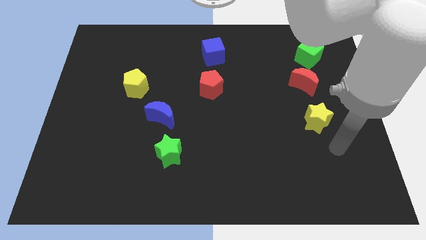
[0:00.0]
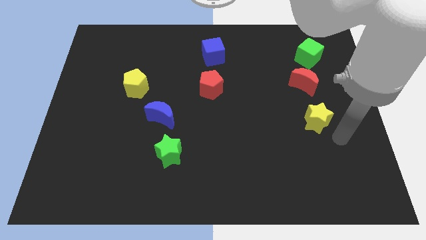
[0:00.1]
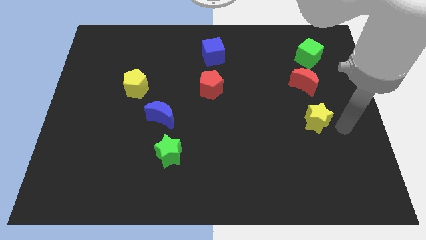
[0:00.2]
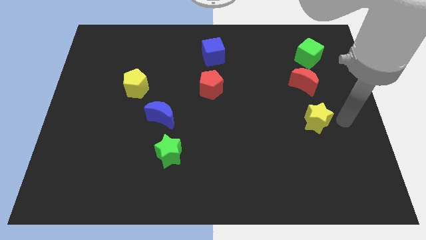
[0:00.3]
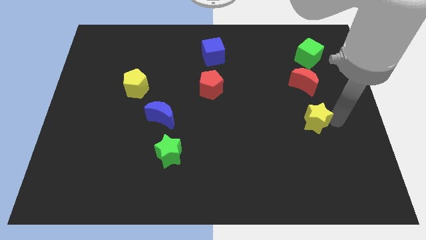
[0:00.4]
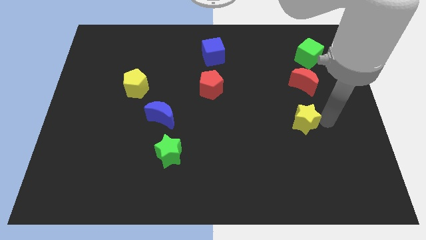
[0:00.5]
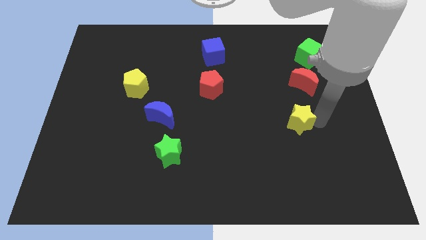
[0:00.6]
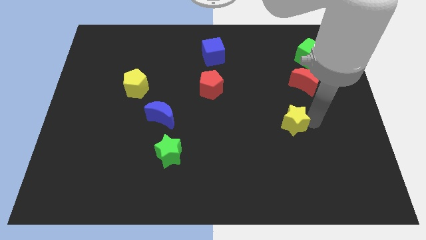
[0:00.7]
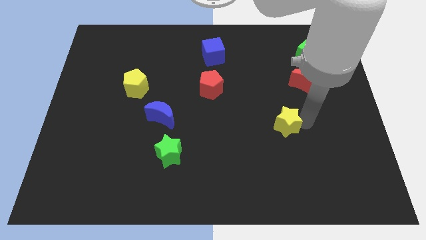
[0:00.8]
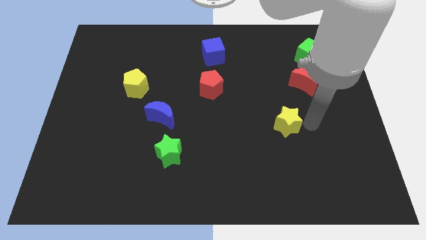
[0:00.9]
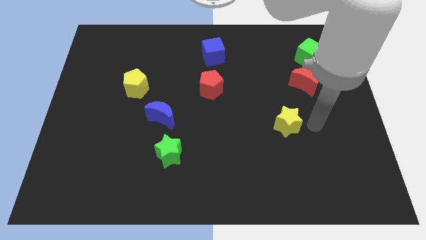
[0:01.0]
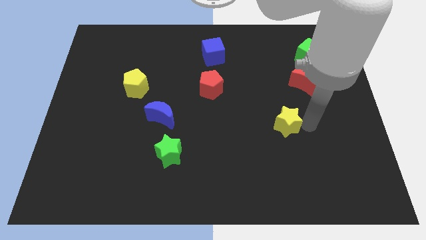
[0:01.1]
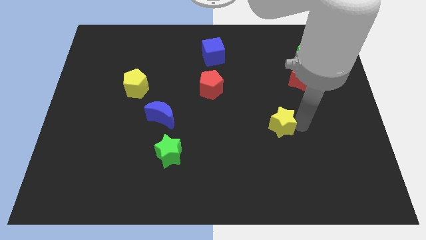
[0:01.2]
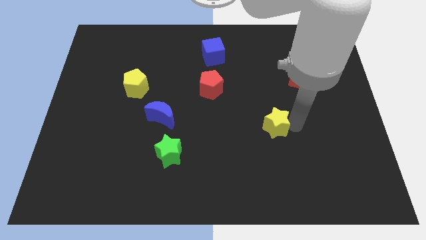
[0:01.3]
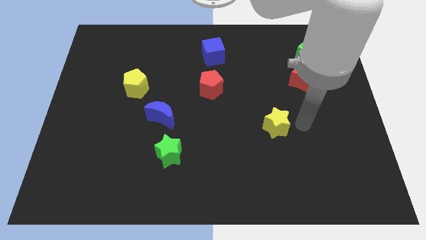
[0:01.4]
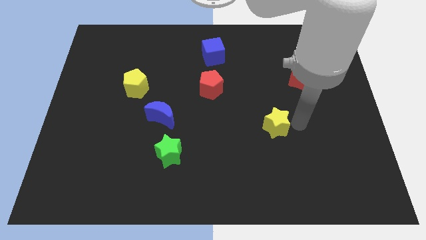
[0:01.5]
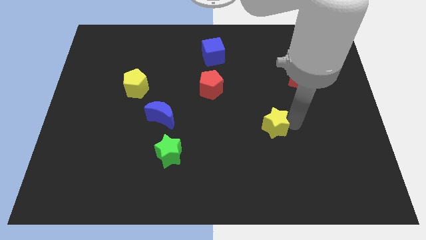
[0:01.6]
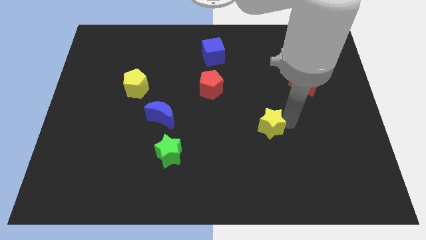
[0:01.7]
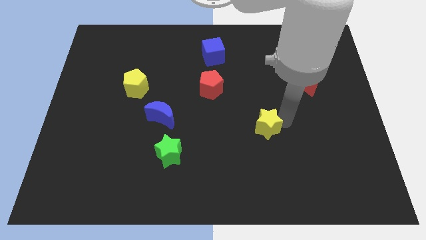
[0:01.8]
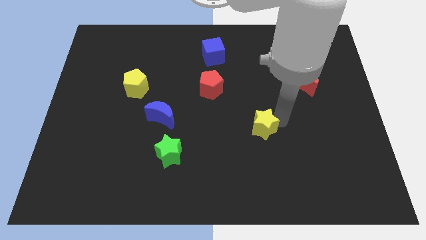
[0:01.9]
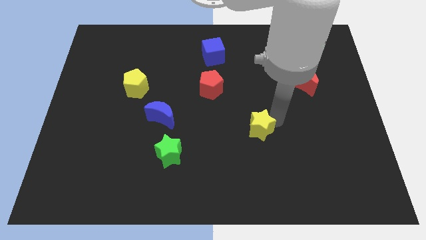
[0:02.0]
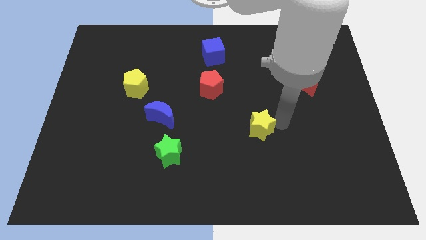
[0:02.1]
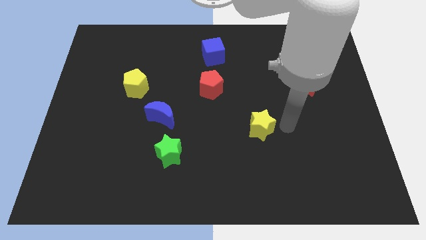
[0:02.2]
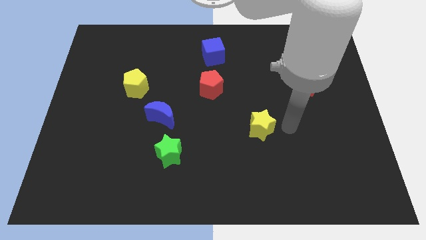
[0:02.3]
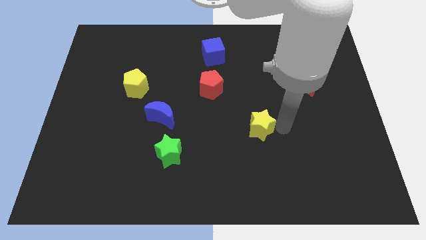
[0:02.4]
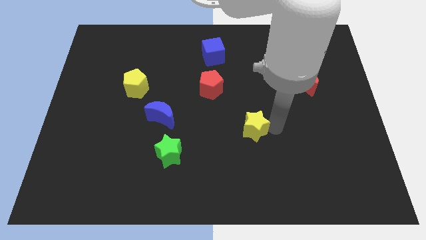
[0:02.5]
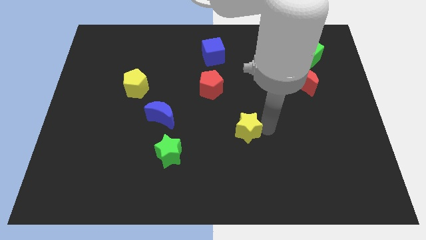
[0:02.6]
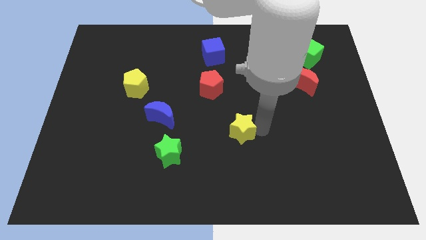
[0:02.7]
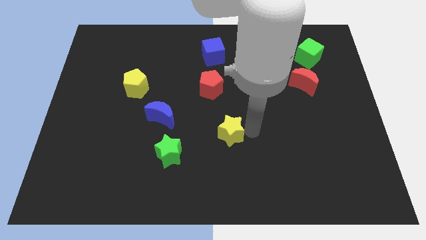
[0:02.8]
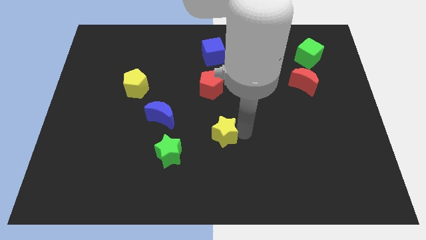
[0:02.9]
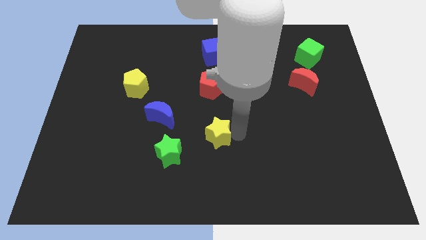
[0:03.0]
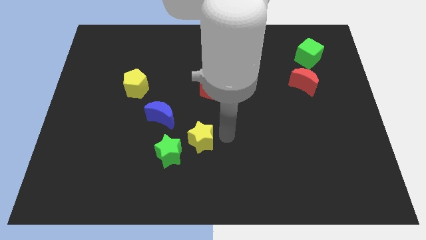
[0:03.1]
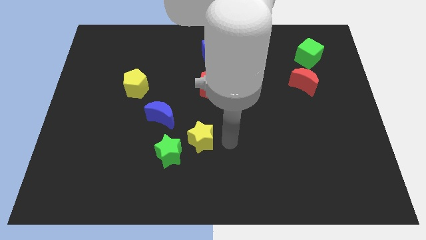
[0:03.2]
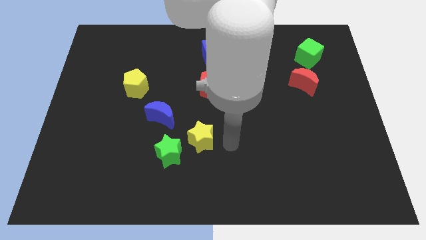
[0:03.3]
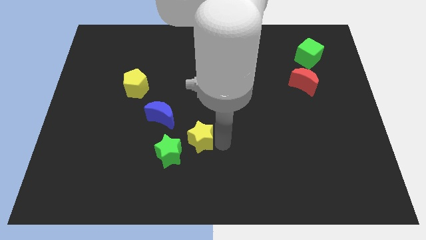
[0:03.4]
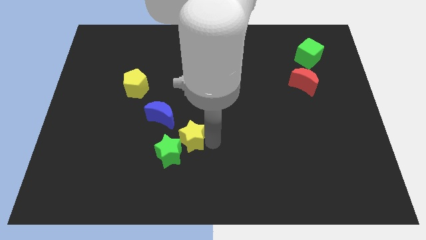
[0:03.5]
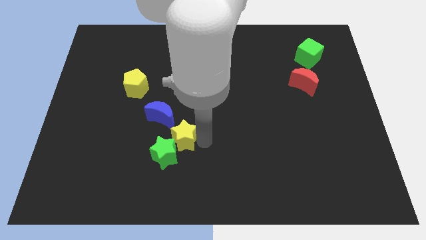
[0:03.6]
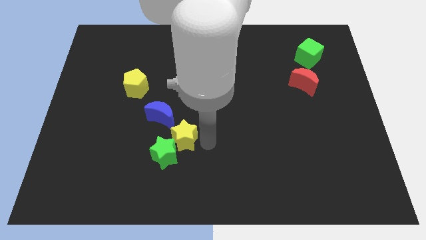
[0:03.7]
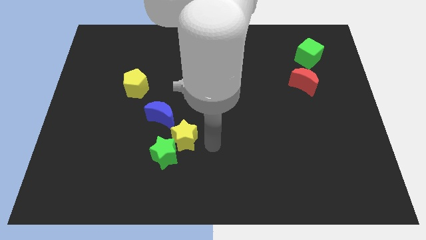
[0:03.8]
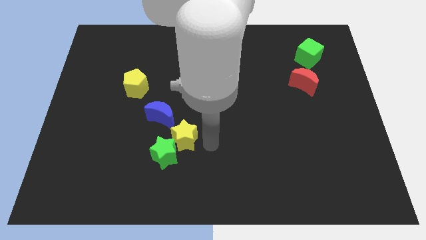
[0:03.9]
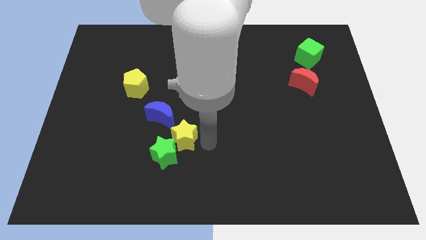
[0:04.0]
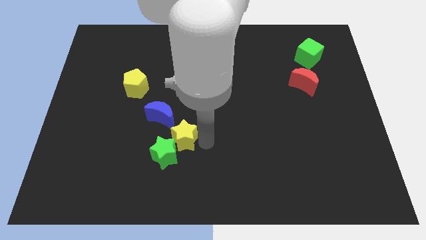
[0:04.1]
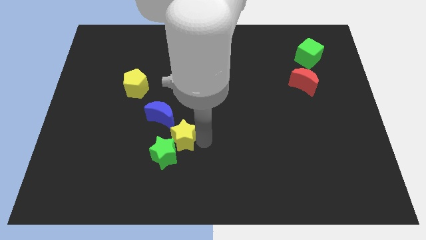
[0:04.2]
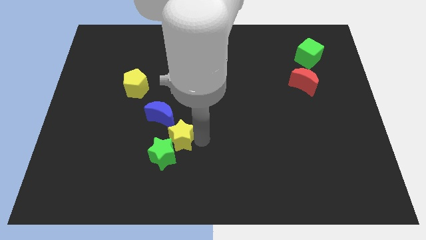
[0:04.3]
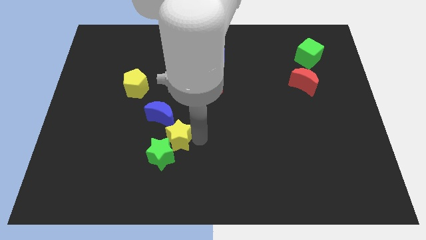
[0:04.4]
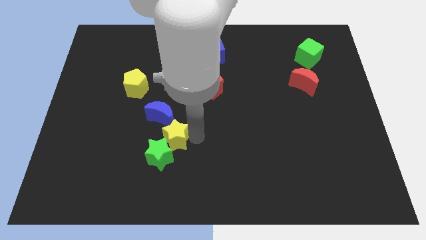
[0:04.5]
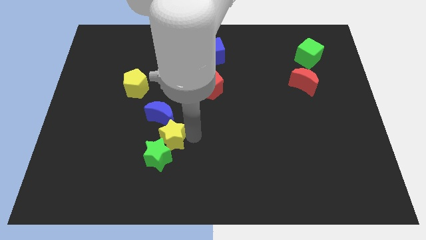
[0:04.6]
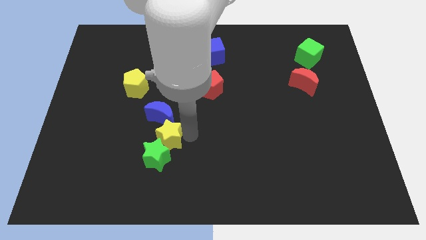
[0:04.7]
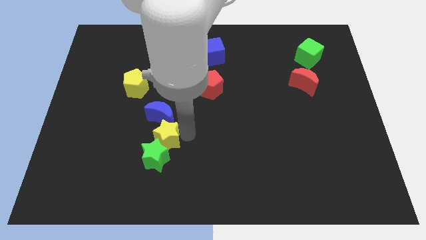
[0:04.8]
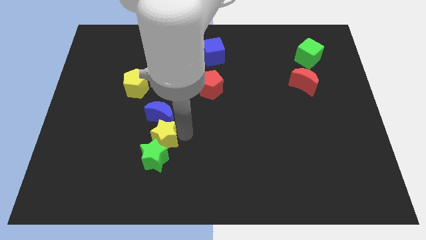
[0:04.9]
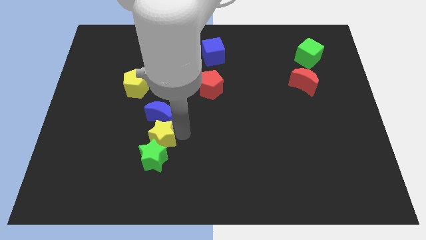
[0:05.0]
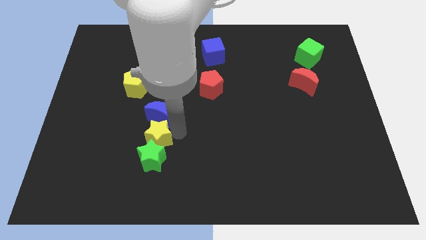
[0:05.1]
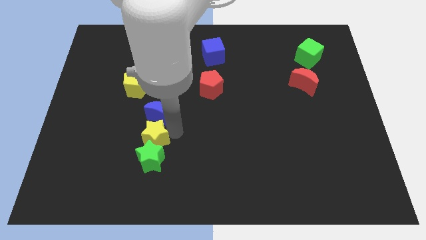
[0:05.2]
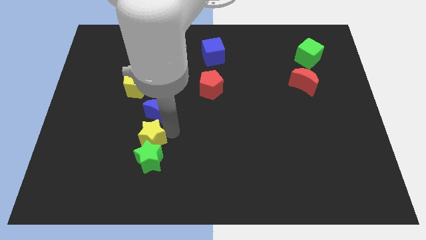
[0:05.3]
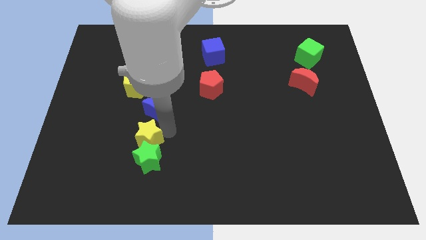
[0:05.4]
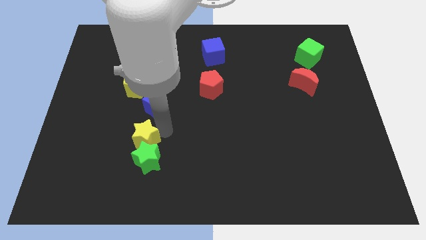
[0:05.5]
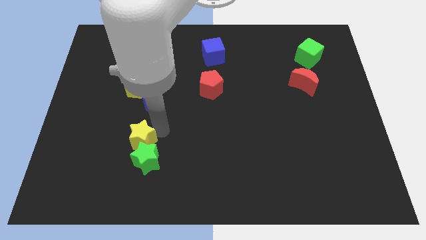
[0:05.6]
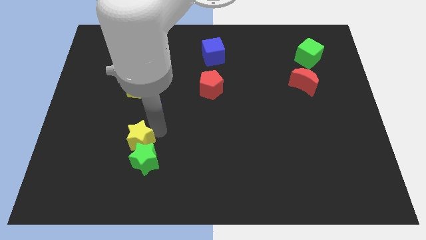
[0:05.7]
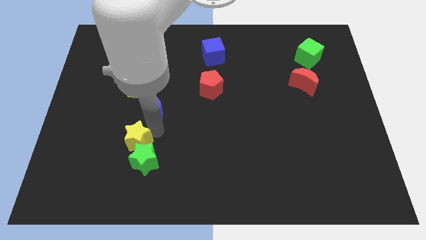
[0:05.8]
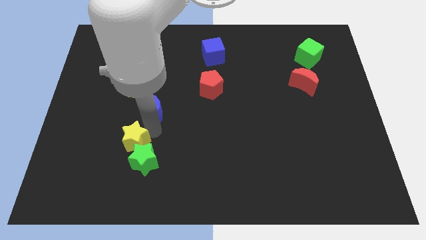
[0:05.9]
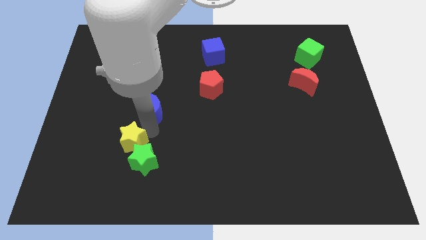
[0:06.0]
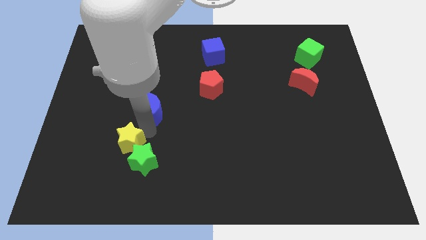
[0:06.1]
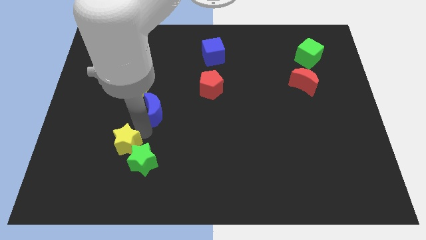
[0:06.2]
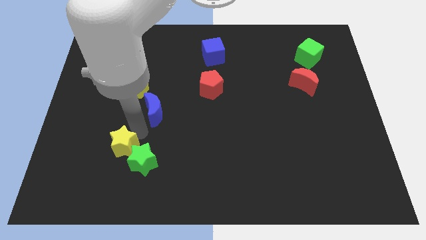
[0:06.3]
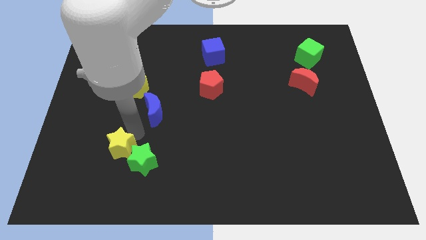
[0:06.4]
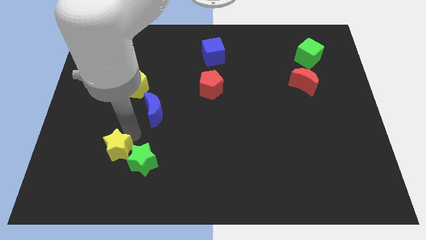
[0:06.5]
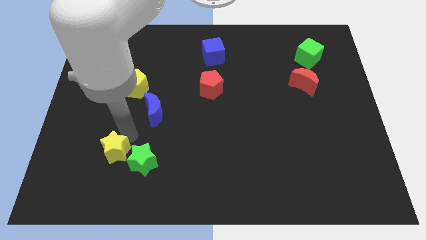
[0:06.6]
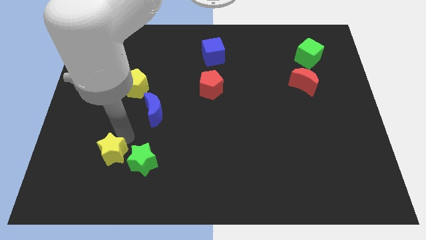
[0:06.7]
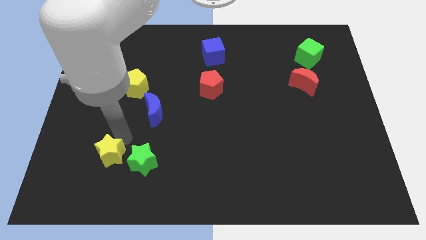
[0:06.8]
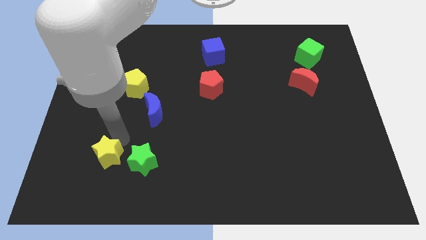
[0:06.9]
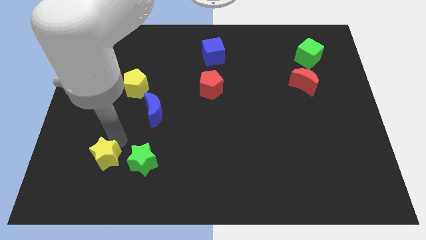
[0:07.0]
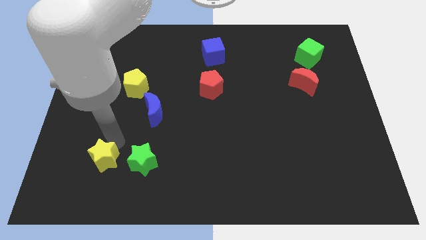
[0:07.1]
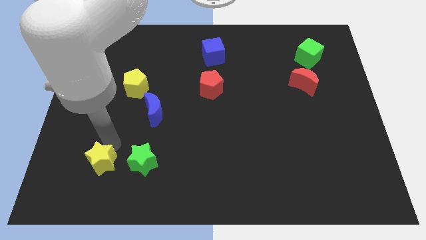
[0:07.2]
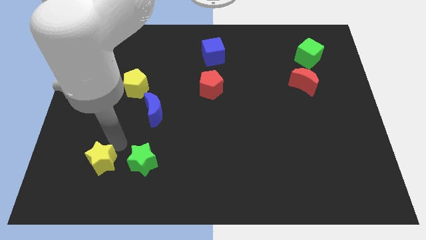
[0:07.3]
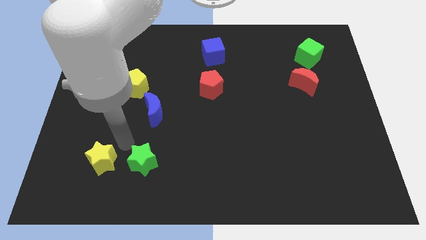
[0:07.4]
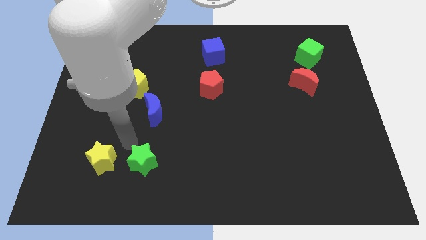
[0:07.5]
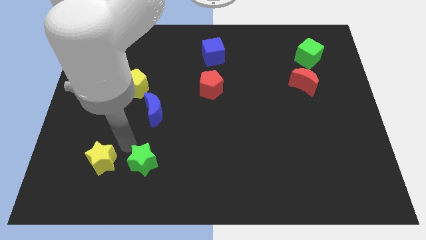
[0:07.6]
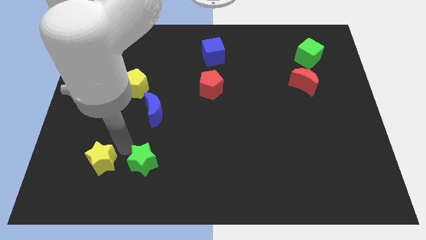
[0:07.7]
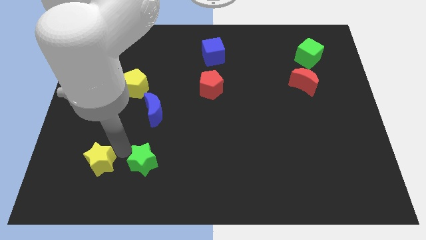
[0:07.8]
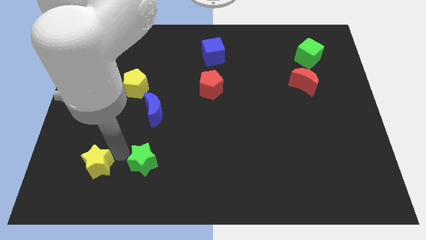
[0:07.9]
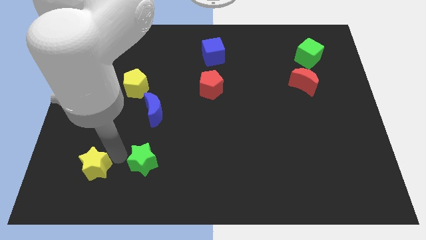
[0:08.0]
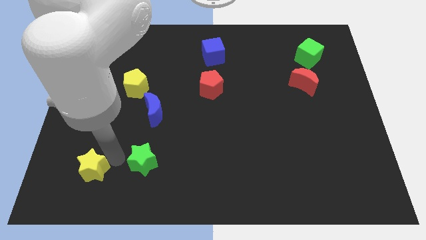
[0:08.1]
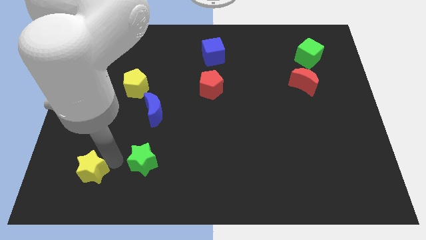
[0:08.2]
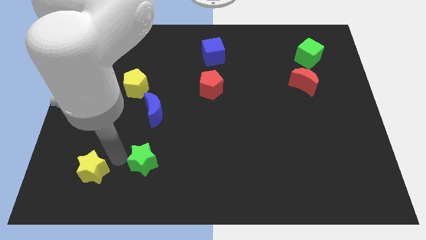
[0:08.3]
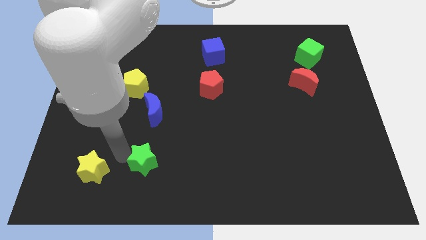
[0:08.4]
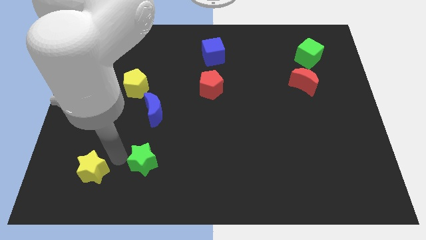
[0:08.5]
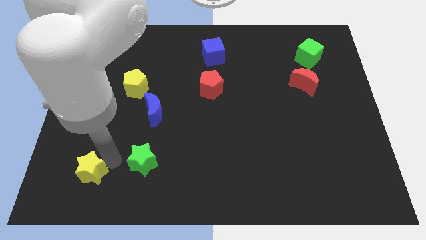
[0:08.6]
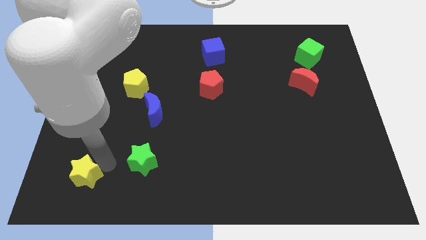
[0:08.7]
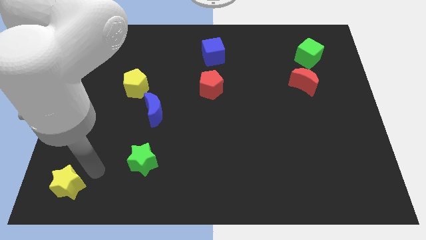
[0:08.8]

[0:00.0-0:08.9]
slide the yellow star to the bottom left corner
